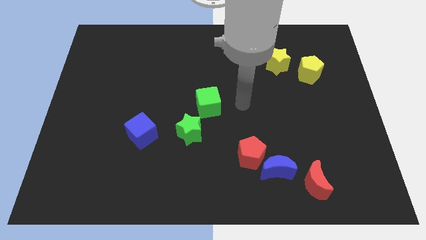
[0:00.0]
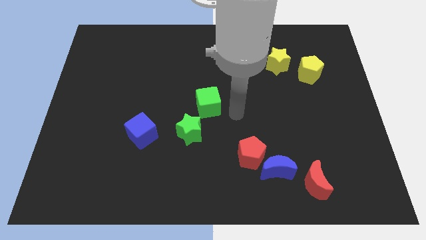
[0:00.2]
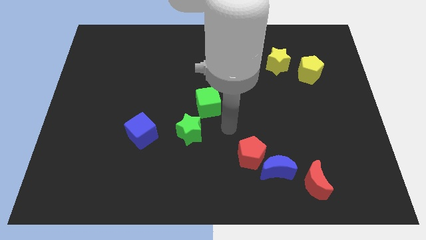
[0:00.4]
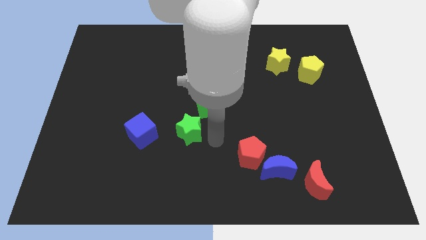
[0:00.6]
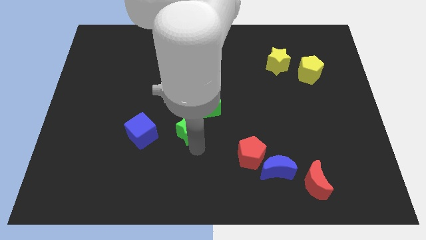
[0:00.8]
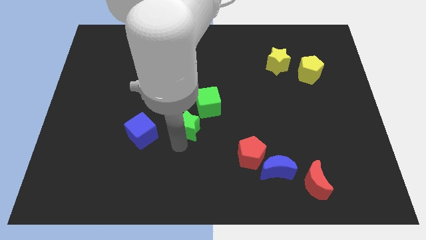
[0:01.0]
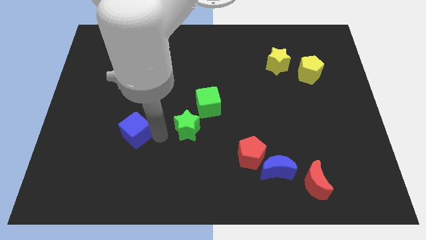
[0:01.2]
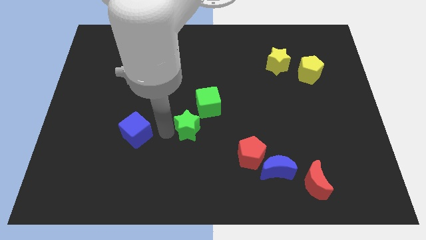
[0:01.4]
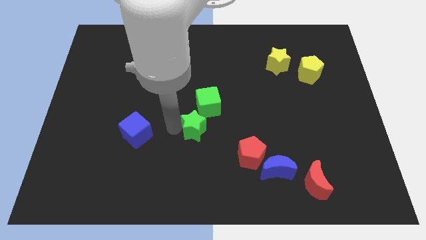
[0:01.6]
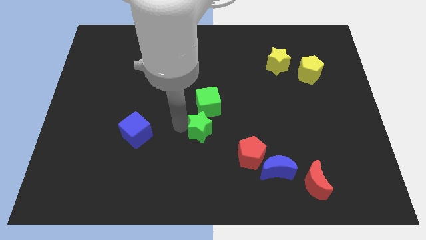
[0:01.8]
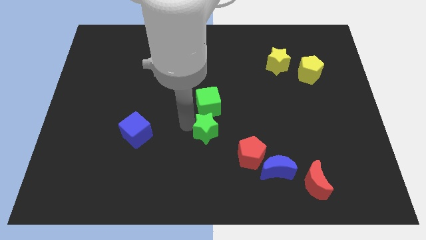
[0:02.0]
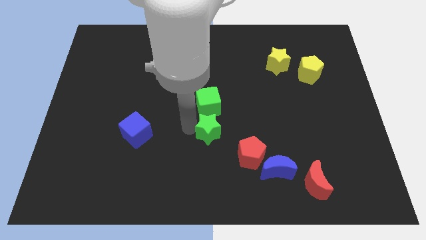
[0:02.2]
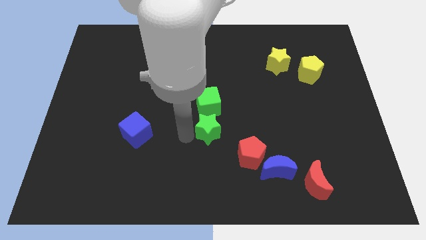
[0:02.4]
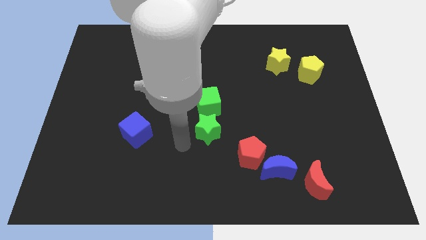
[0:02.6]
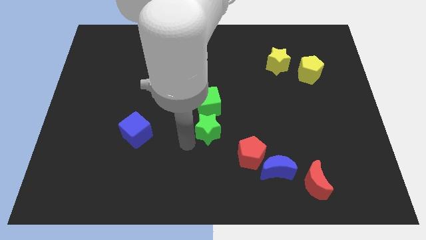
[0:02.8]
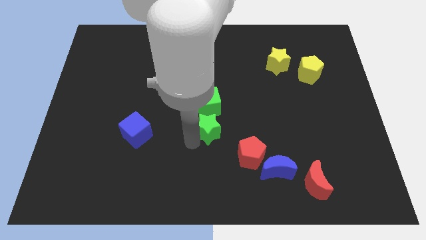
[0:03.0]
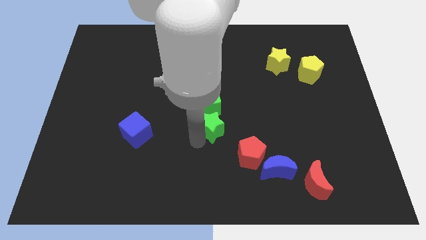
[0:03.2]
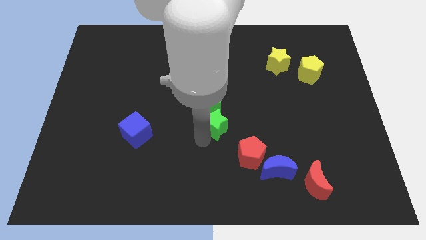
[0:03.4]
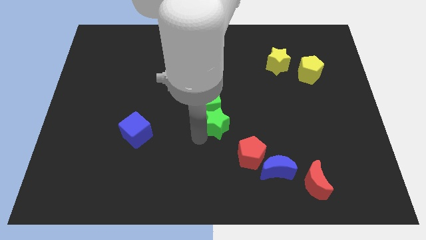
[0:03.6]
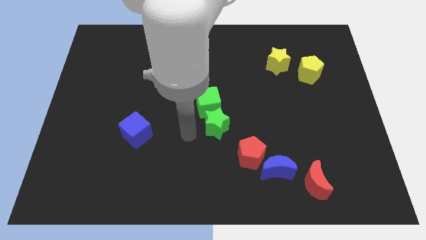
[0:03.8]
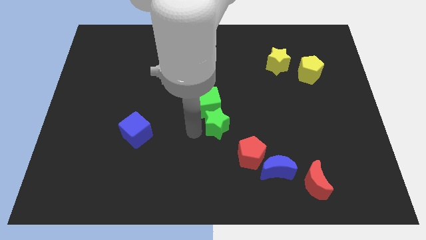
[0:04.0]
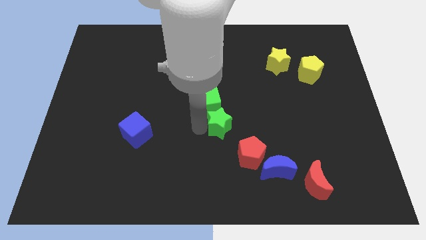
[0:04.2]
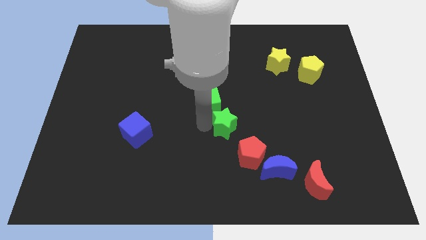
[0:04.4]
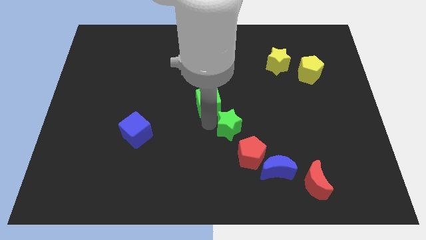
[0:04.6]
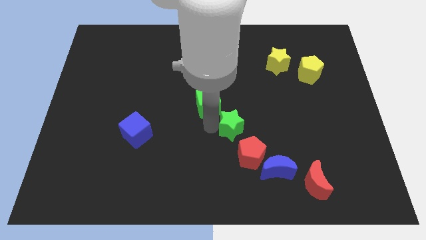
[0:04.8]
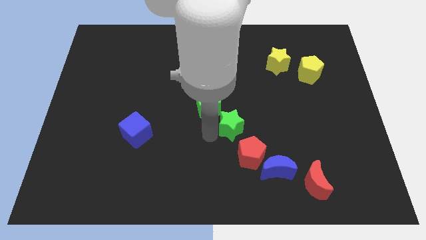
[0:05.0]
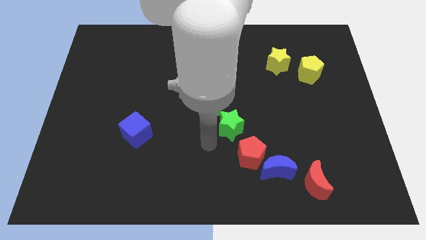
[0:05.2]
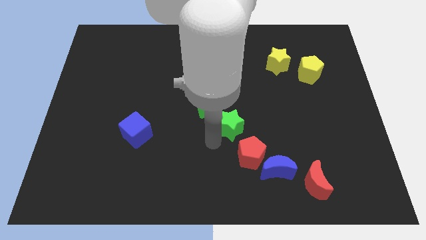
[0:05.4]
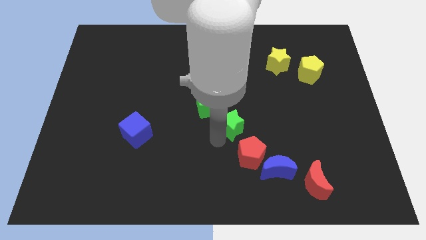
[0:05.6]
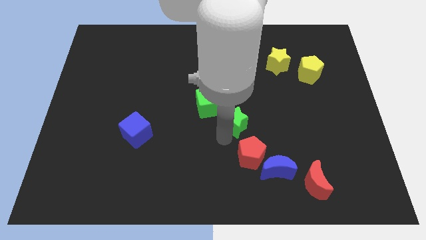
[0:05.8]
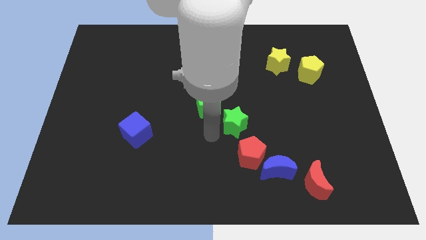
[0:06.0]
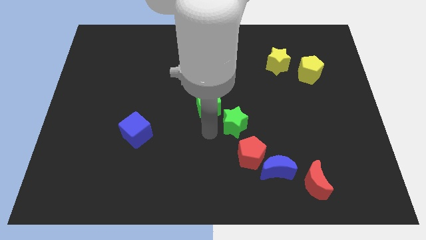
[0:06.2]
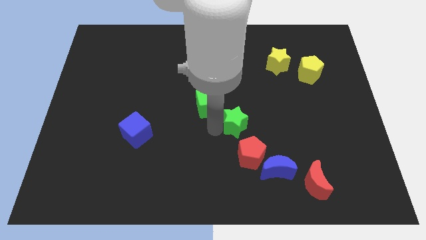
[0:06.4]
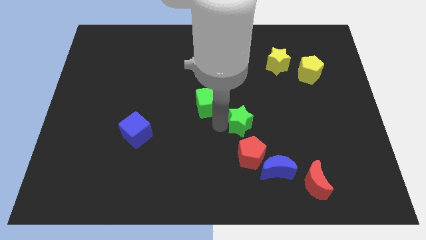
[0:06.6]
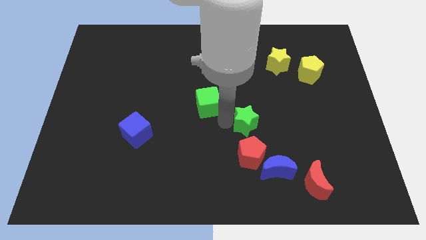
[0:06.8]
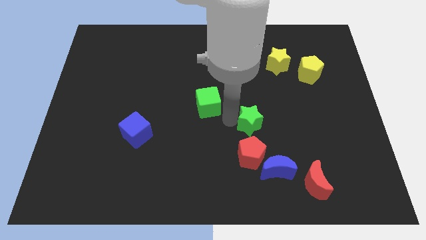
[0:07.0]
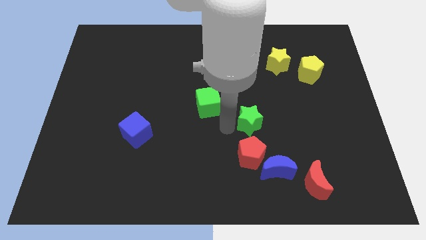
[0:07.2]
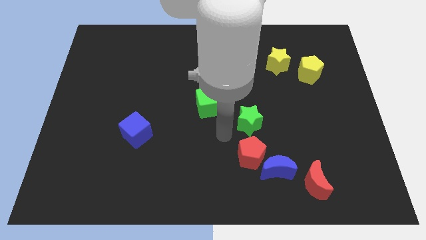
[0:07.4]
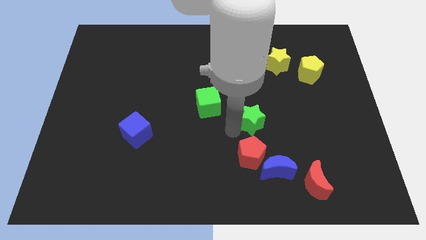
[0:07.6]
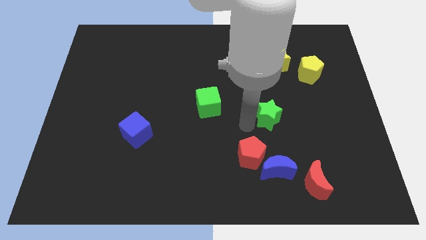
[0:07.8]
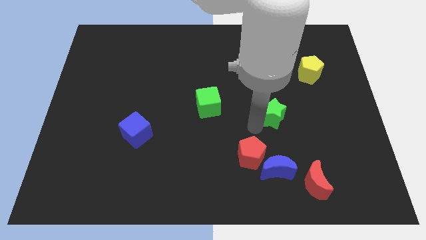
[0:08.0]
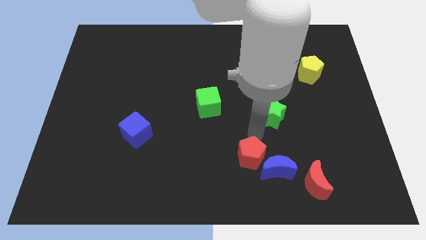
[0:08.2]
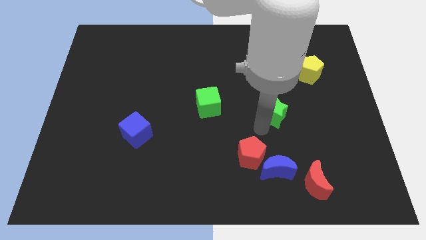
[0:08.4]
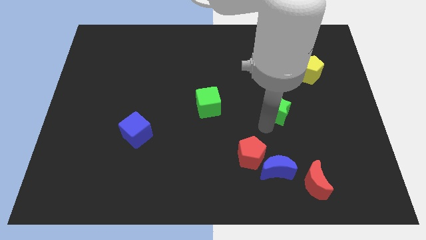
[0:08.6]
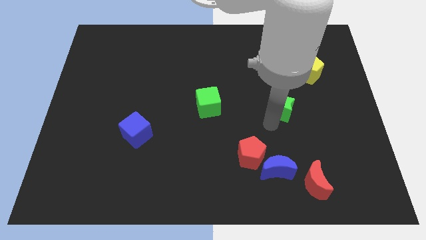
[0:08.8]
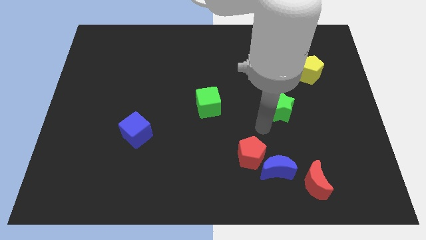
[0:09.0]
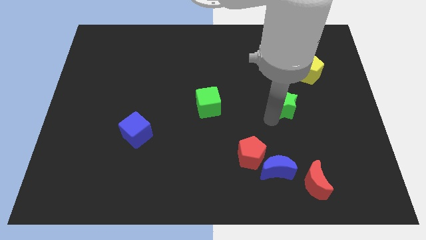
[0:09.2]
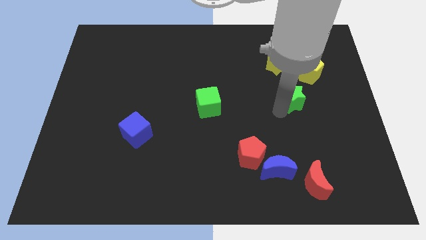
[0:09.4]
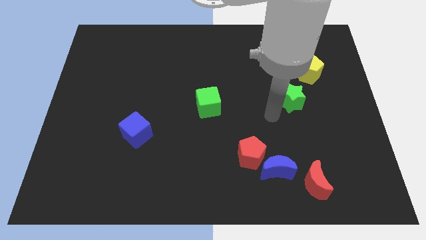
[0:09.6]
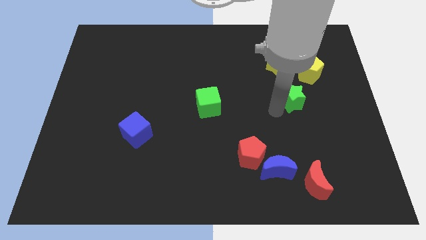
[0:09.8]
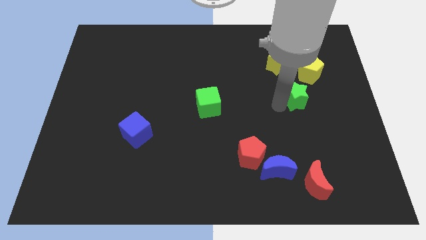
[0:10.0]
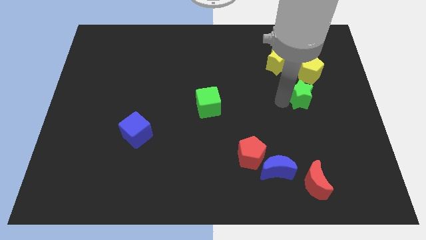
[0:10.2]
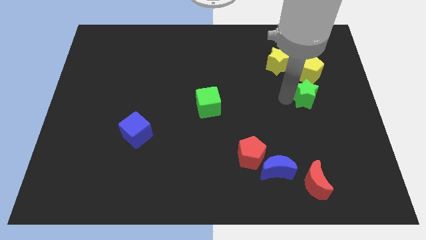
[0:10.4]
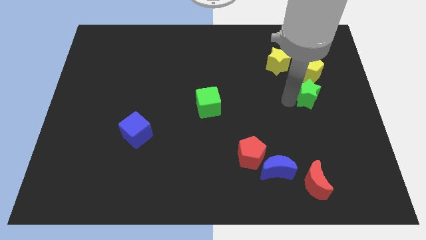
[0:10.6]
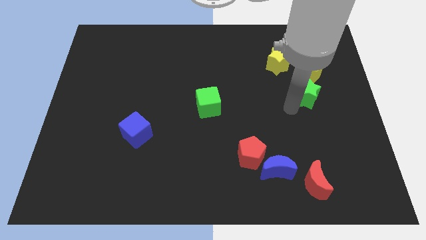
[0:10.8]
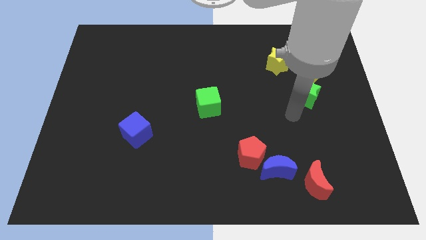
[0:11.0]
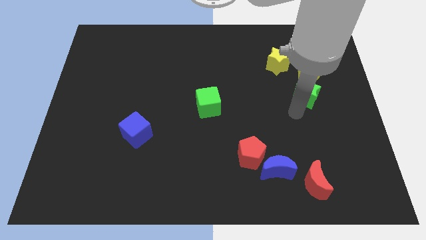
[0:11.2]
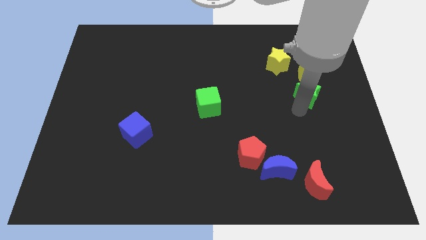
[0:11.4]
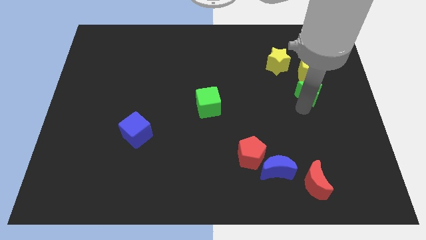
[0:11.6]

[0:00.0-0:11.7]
push the green star to the bottom right side of the yellow star

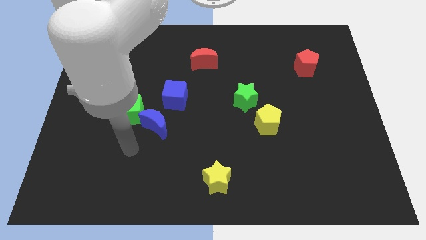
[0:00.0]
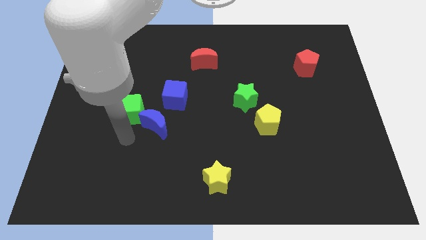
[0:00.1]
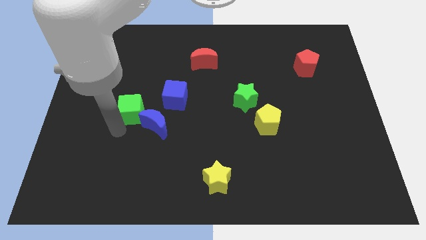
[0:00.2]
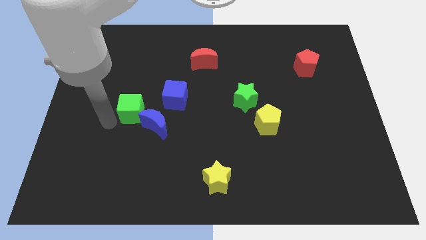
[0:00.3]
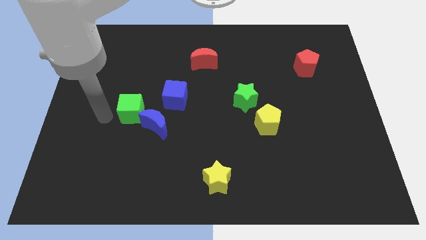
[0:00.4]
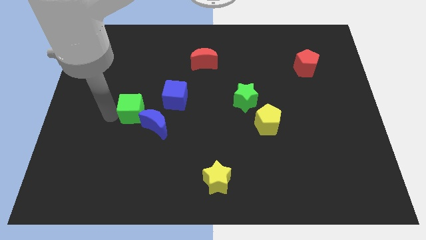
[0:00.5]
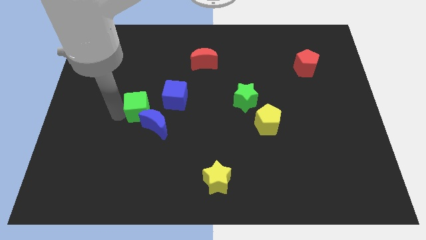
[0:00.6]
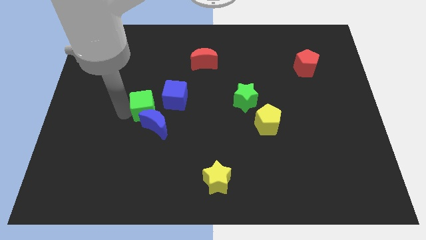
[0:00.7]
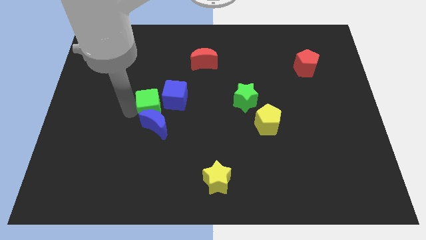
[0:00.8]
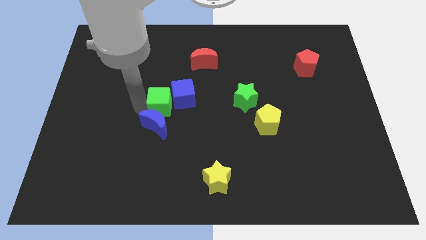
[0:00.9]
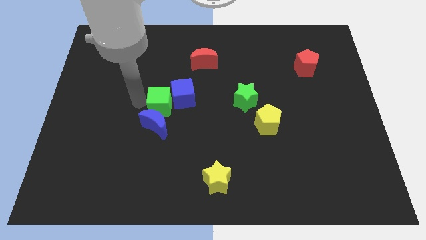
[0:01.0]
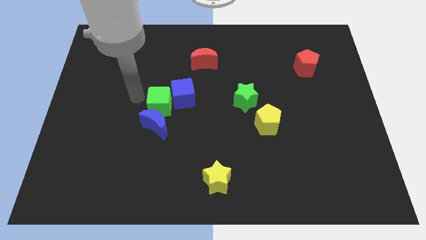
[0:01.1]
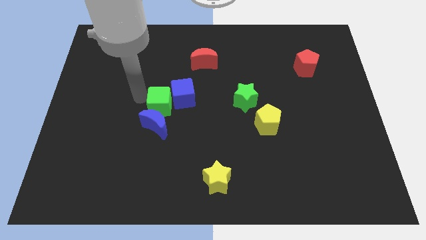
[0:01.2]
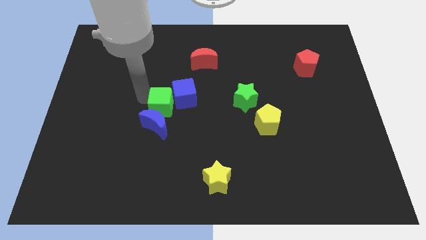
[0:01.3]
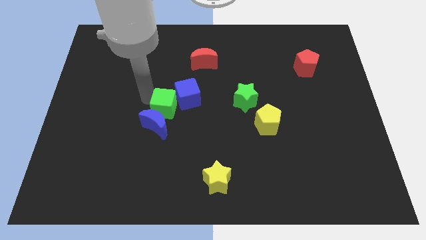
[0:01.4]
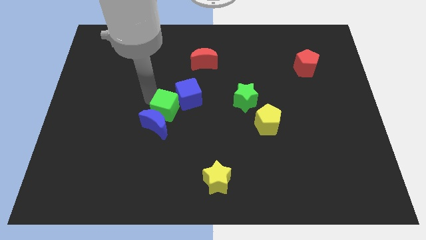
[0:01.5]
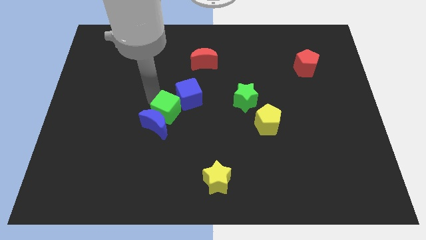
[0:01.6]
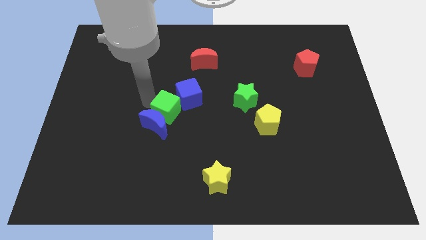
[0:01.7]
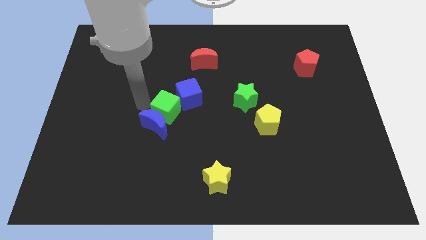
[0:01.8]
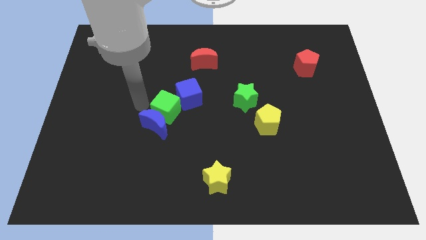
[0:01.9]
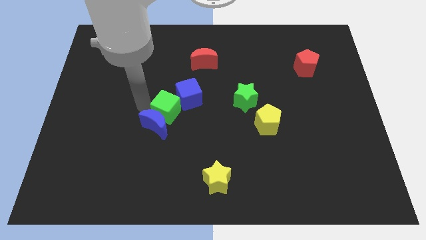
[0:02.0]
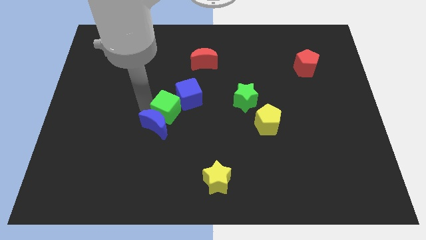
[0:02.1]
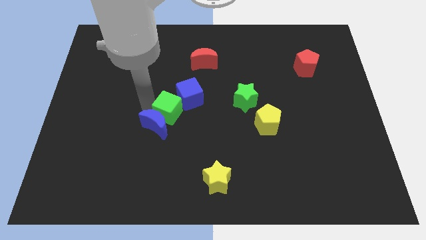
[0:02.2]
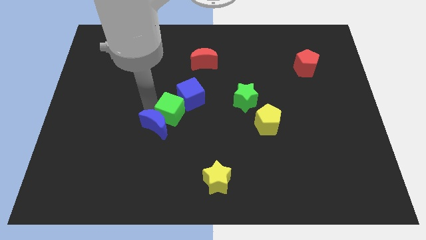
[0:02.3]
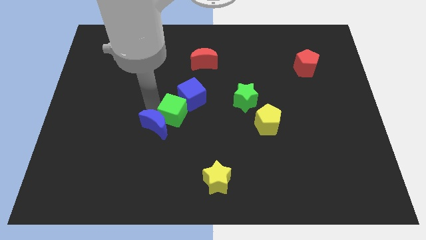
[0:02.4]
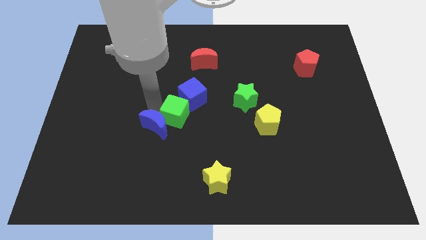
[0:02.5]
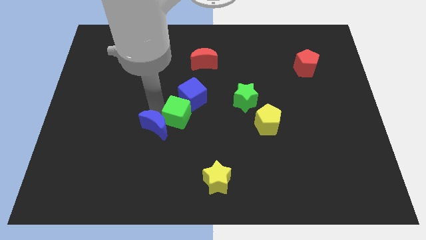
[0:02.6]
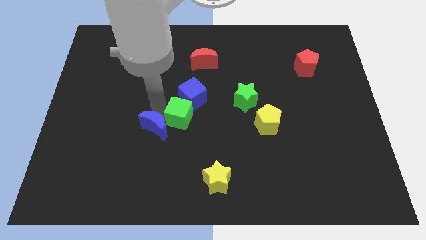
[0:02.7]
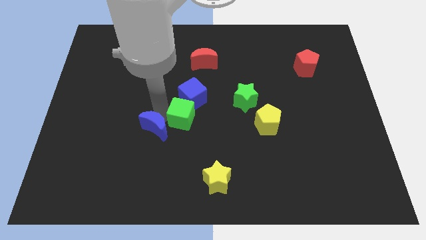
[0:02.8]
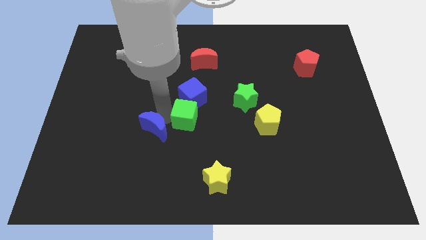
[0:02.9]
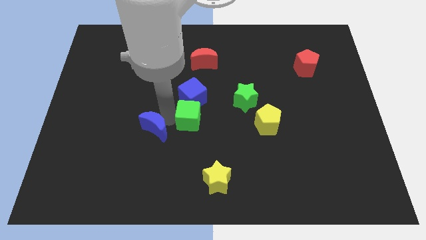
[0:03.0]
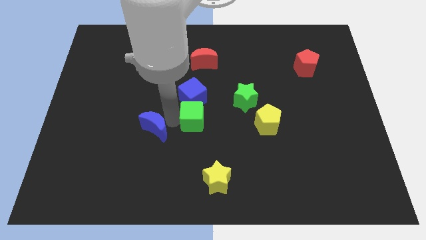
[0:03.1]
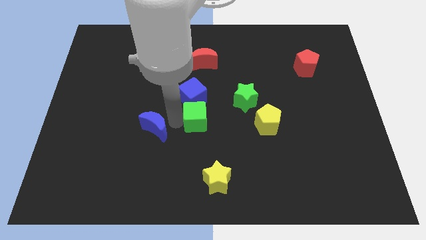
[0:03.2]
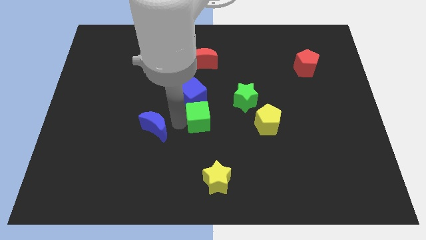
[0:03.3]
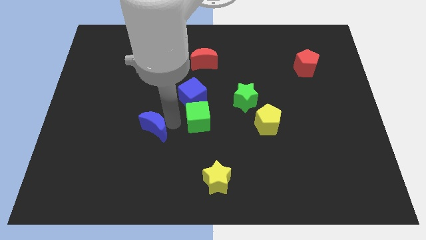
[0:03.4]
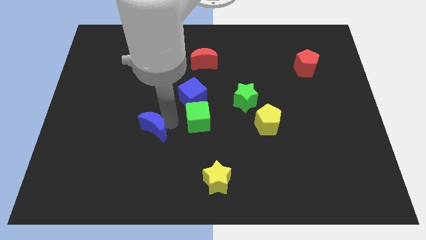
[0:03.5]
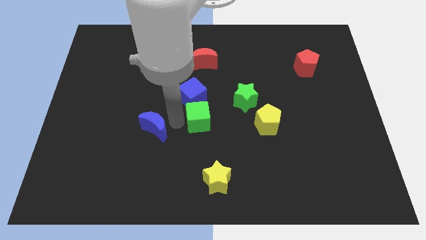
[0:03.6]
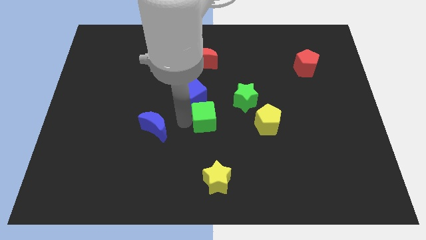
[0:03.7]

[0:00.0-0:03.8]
push the green cube to the bottom left side of the green star
